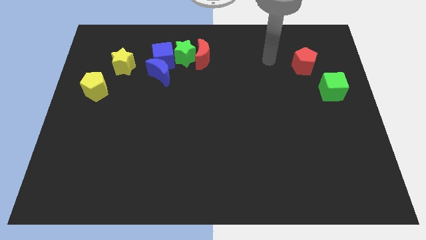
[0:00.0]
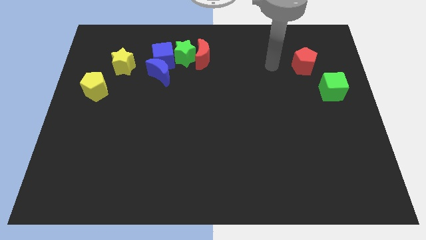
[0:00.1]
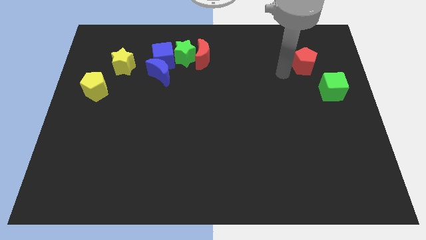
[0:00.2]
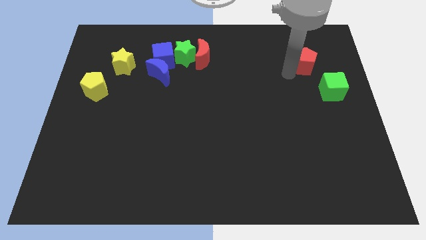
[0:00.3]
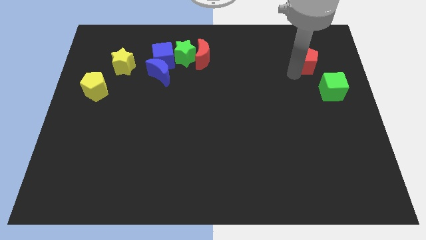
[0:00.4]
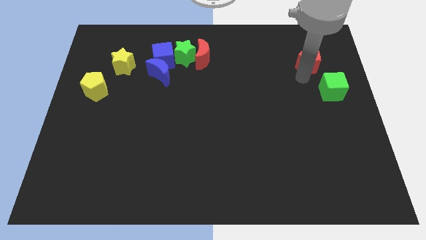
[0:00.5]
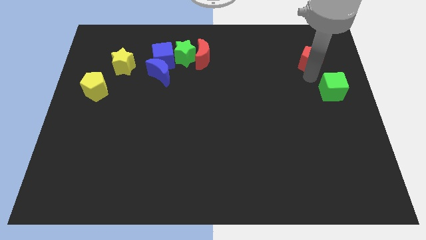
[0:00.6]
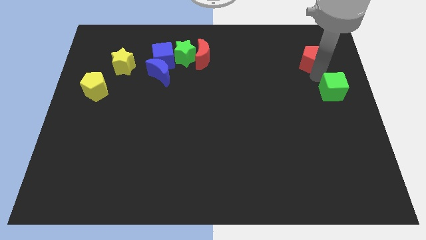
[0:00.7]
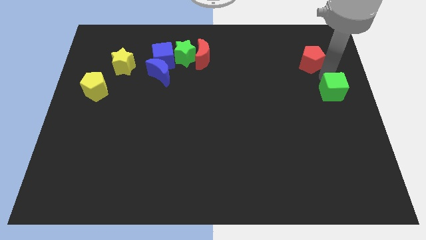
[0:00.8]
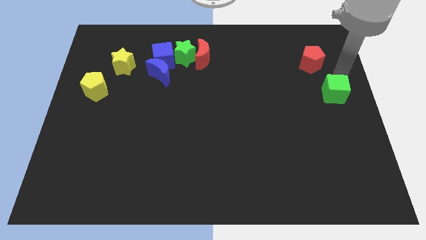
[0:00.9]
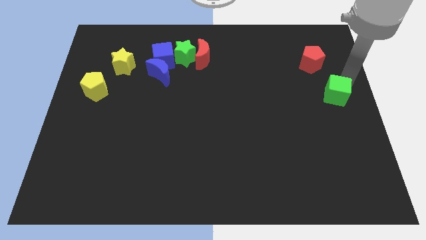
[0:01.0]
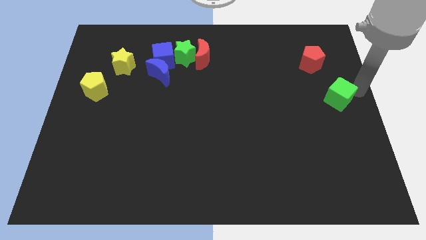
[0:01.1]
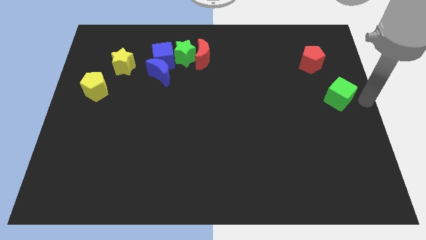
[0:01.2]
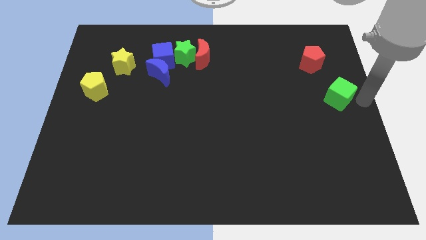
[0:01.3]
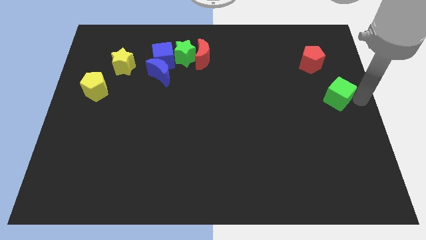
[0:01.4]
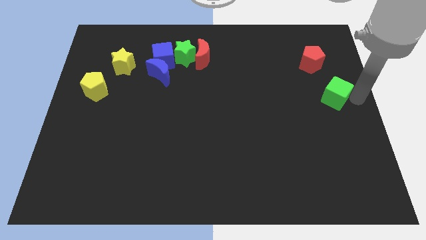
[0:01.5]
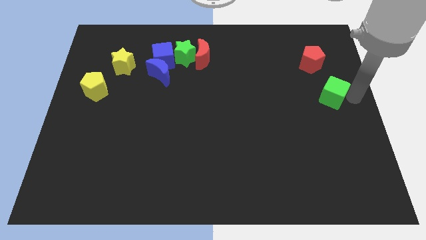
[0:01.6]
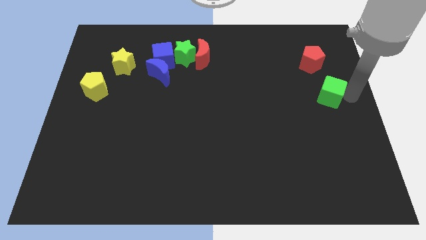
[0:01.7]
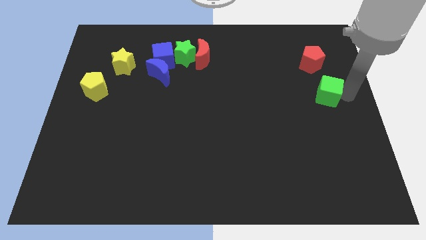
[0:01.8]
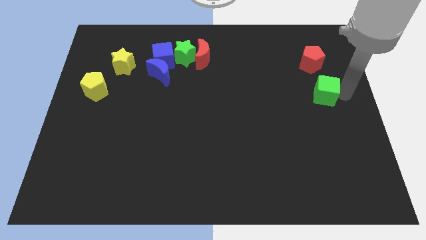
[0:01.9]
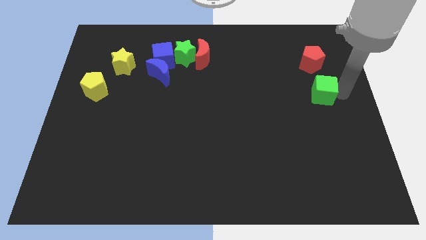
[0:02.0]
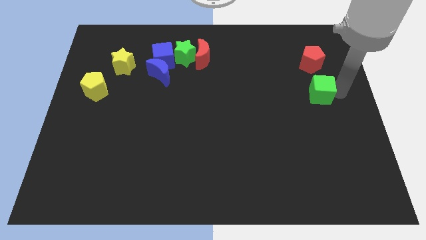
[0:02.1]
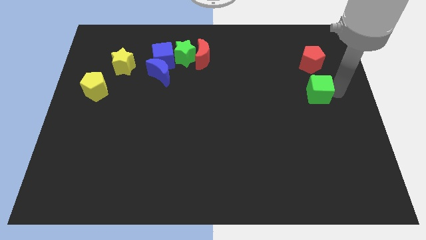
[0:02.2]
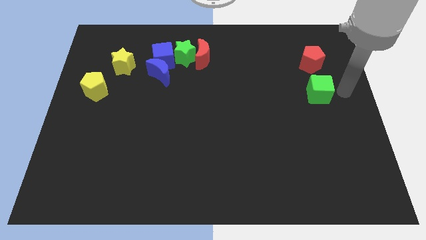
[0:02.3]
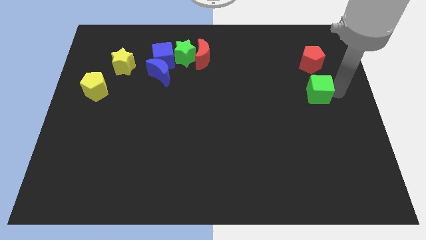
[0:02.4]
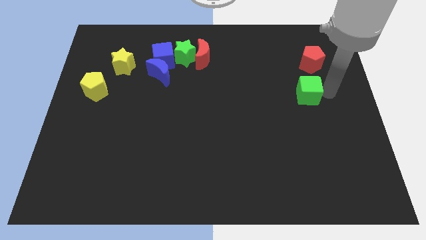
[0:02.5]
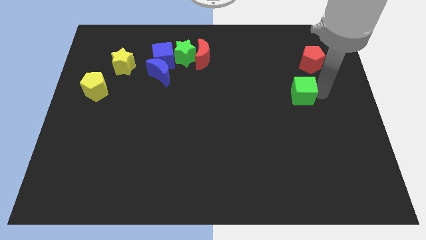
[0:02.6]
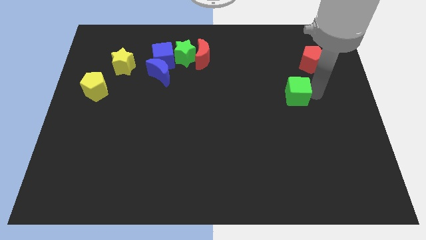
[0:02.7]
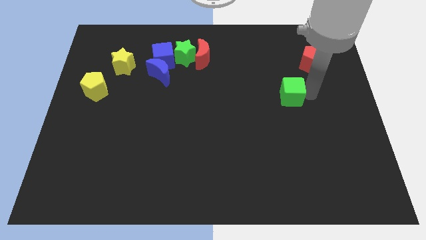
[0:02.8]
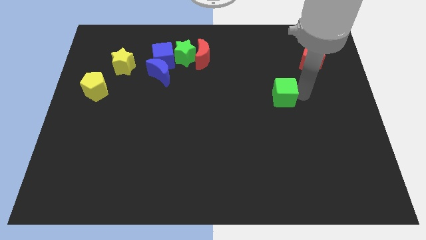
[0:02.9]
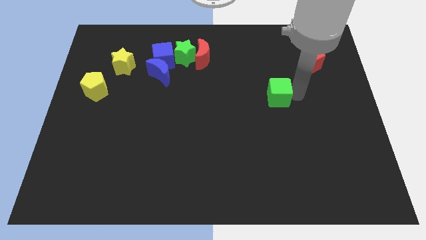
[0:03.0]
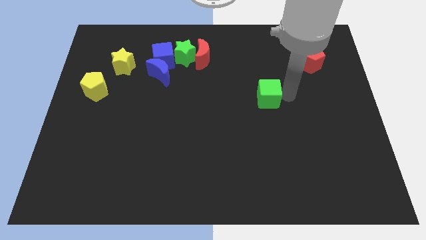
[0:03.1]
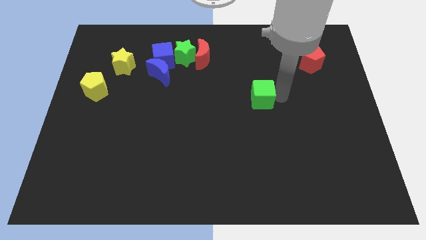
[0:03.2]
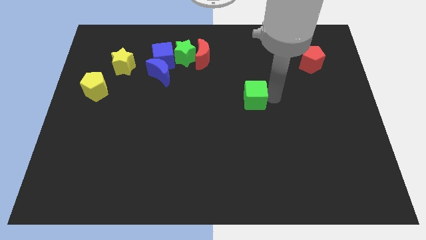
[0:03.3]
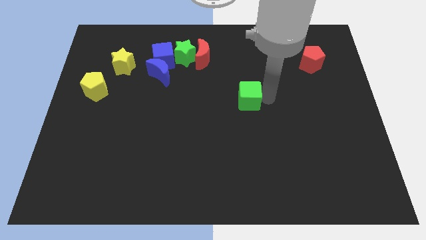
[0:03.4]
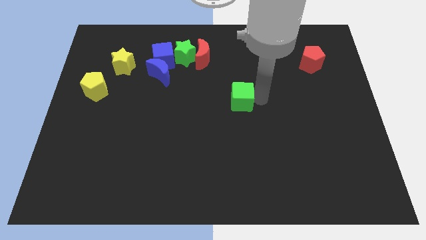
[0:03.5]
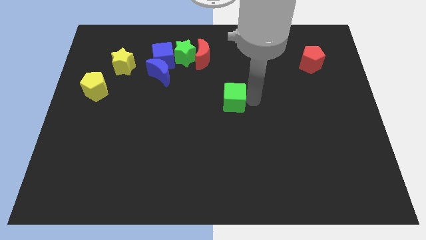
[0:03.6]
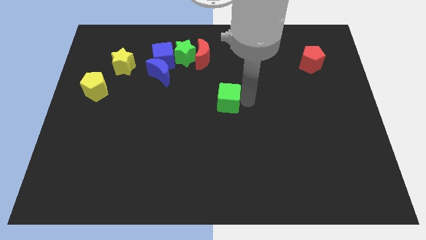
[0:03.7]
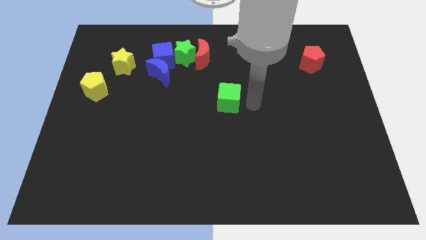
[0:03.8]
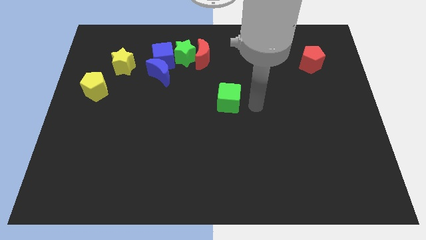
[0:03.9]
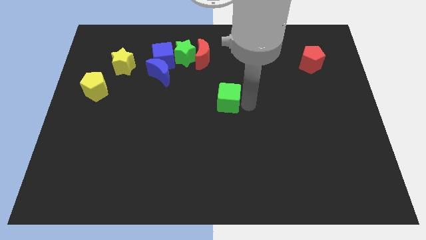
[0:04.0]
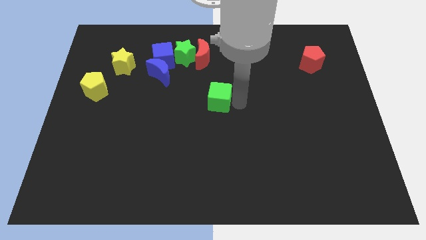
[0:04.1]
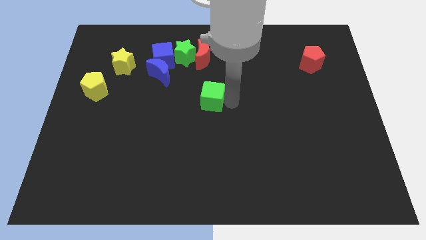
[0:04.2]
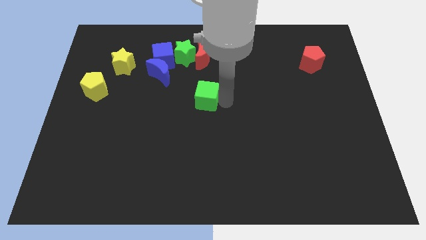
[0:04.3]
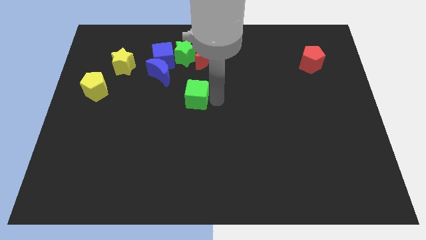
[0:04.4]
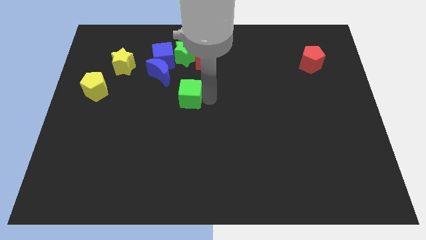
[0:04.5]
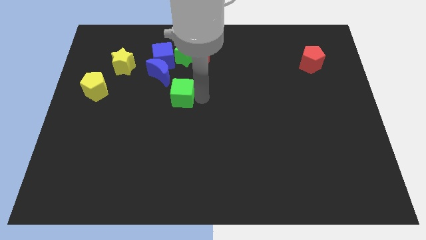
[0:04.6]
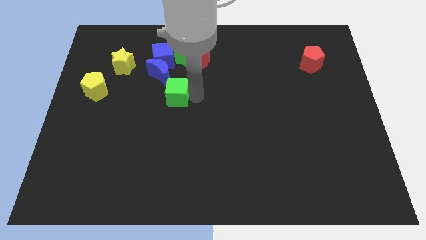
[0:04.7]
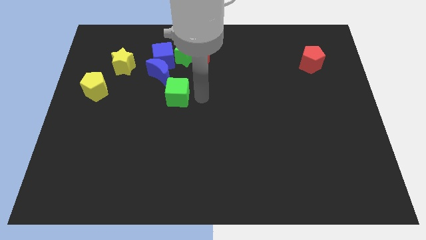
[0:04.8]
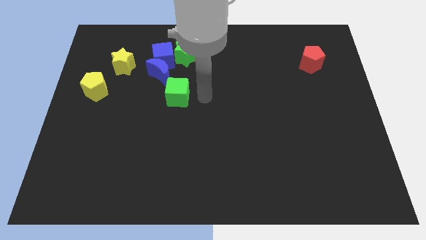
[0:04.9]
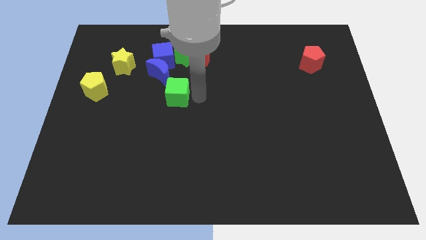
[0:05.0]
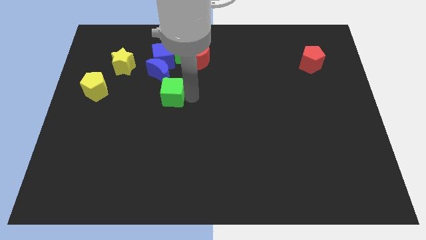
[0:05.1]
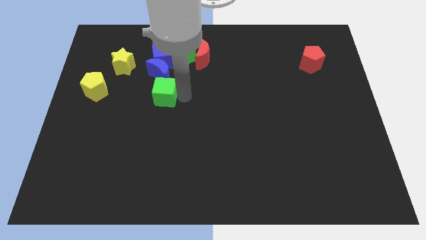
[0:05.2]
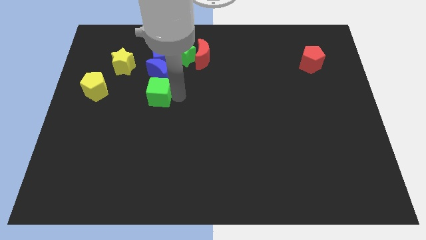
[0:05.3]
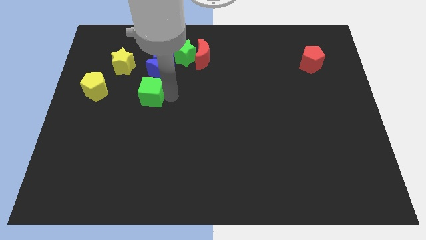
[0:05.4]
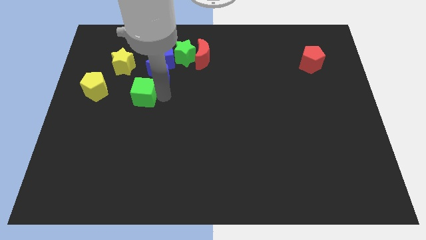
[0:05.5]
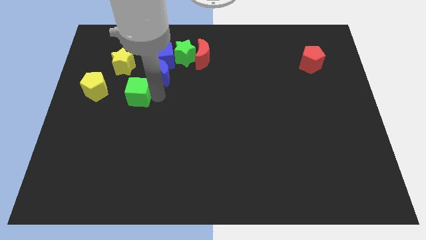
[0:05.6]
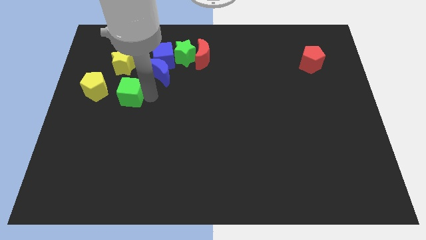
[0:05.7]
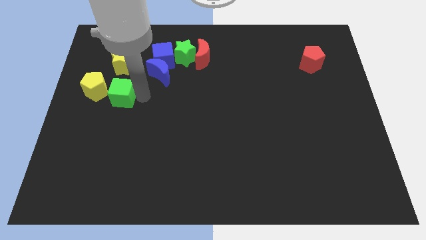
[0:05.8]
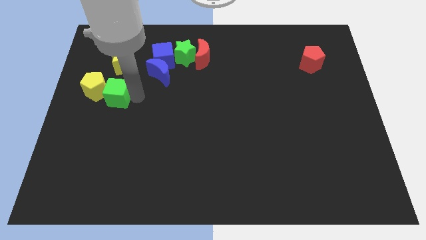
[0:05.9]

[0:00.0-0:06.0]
put the green cube close to the yellow pentagon

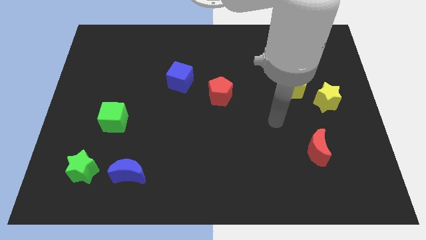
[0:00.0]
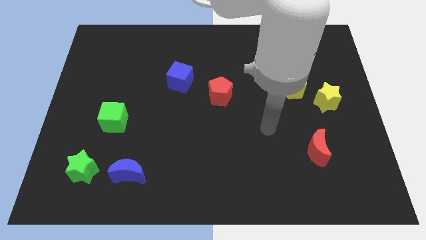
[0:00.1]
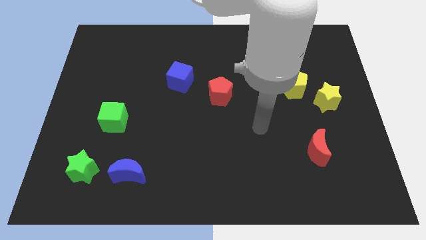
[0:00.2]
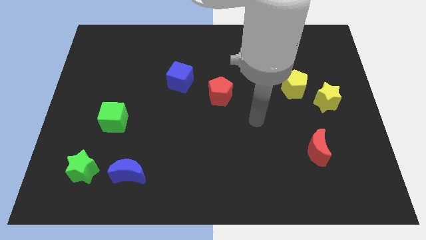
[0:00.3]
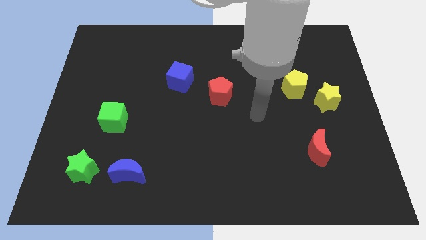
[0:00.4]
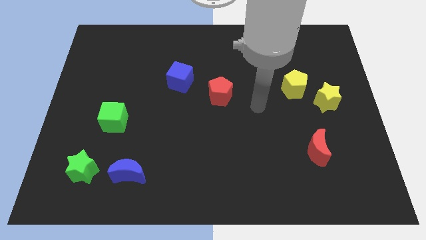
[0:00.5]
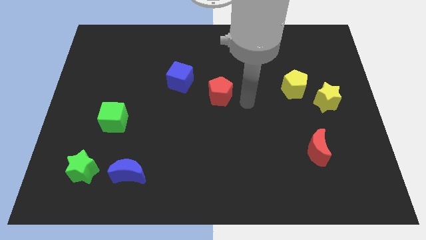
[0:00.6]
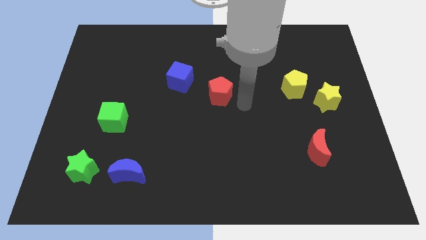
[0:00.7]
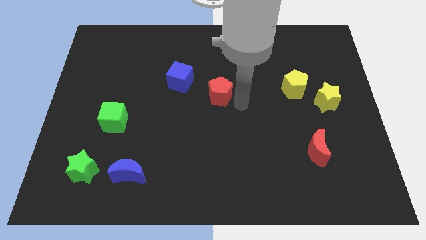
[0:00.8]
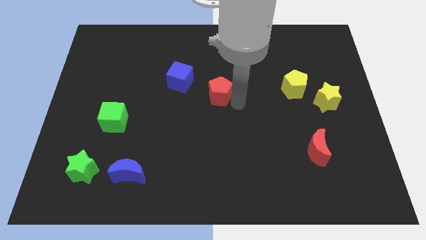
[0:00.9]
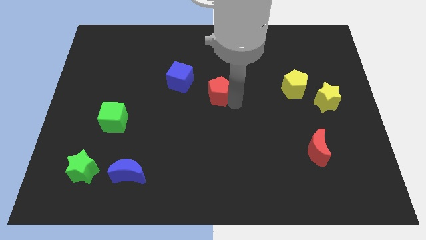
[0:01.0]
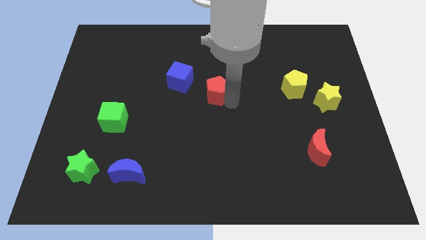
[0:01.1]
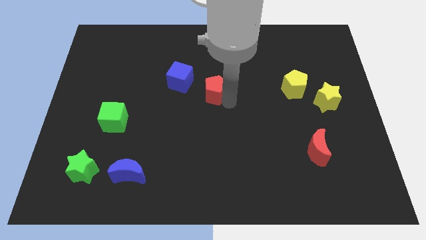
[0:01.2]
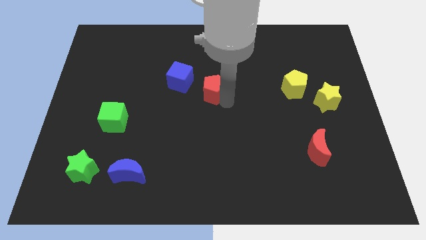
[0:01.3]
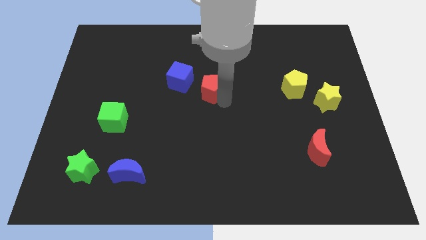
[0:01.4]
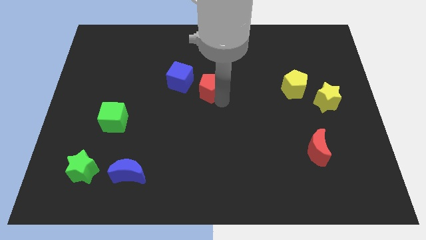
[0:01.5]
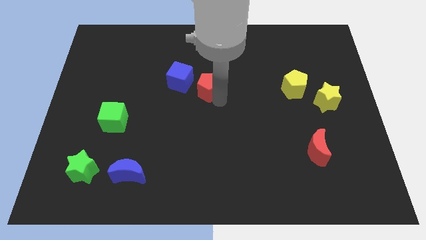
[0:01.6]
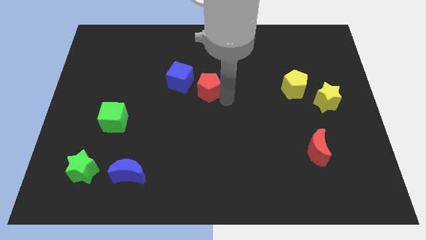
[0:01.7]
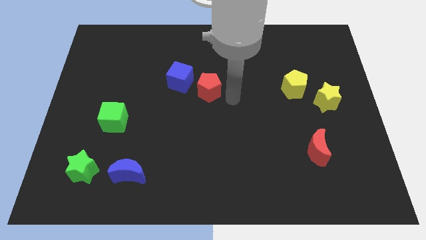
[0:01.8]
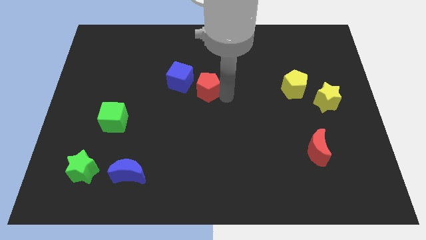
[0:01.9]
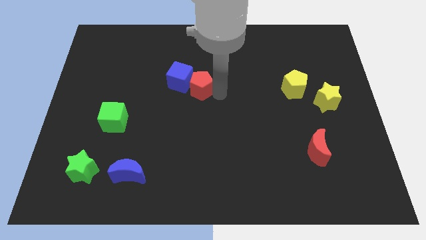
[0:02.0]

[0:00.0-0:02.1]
move the red pentagon close to the blue cube
